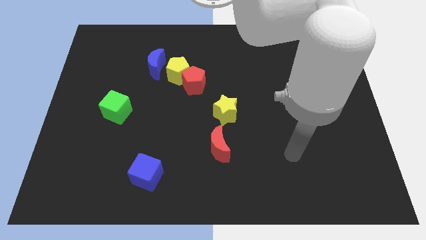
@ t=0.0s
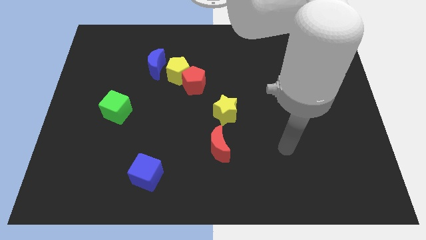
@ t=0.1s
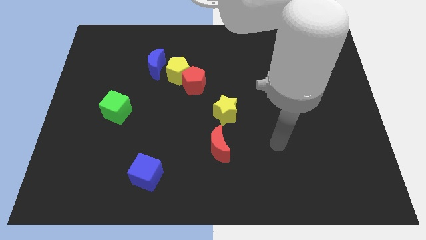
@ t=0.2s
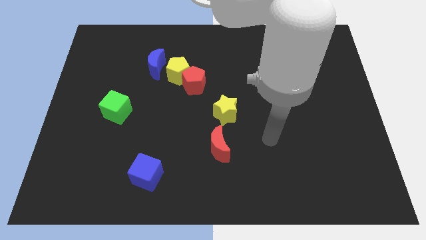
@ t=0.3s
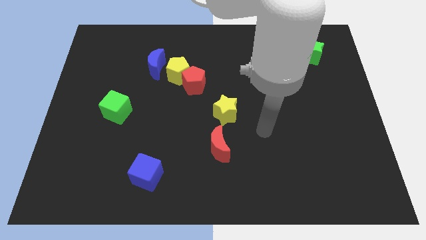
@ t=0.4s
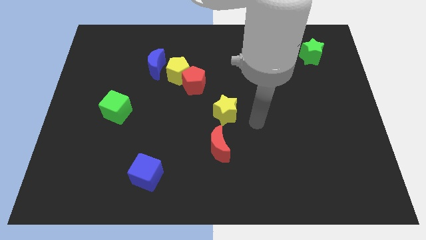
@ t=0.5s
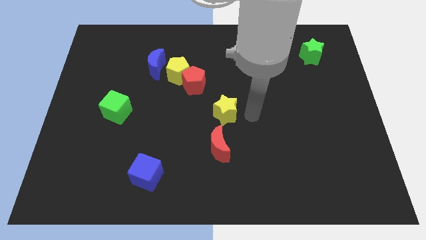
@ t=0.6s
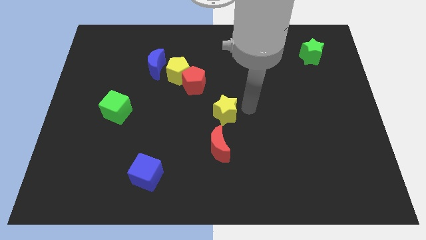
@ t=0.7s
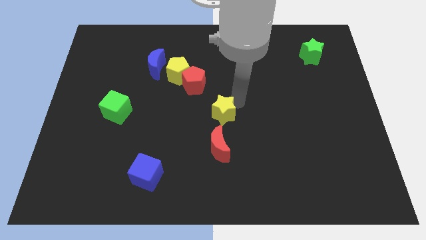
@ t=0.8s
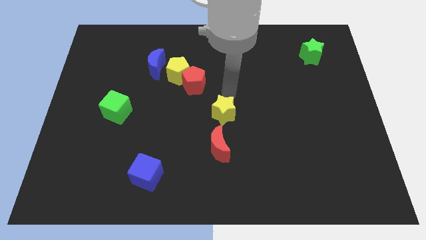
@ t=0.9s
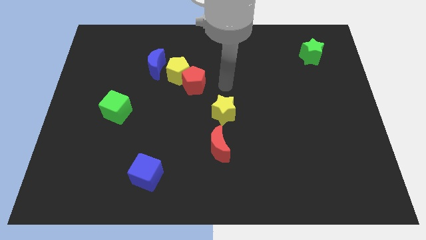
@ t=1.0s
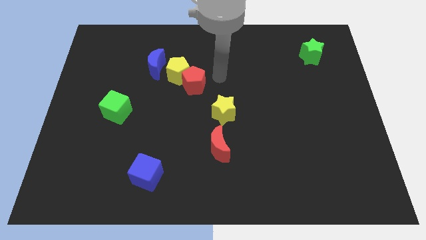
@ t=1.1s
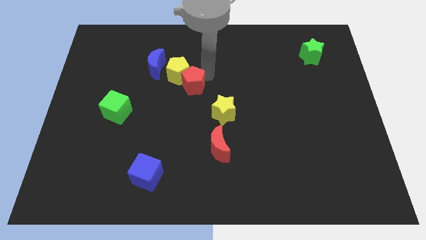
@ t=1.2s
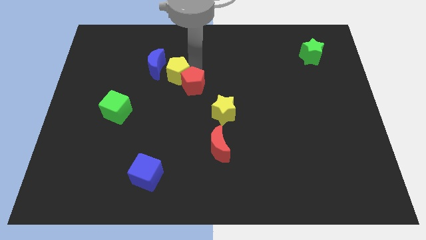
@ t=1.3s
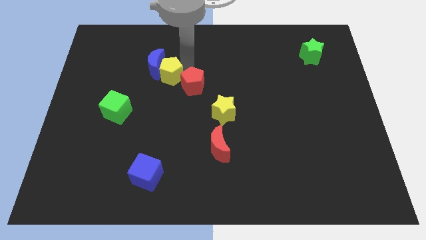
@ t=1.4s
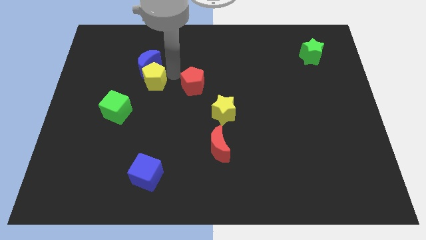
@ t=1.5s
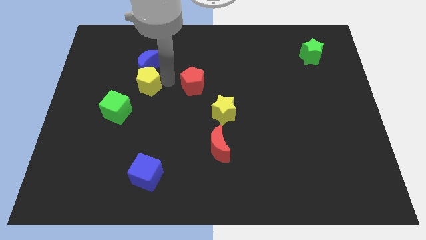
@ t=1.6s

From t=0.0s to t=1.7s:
move the red pentagon away from the yellow pentagon

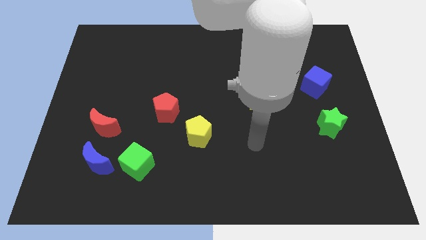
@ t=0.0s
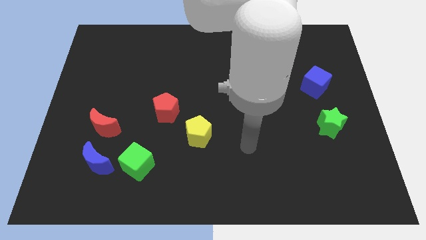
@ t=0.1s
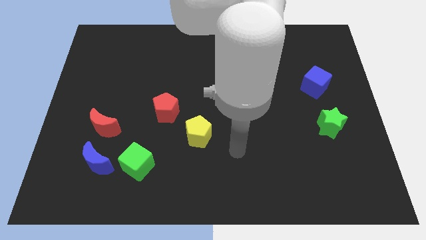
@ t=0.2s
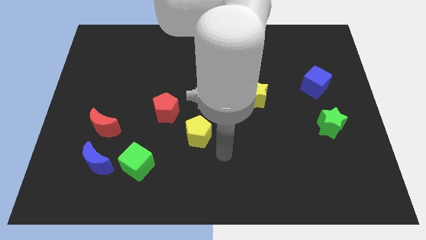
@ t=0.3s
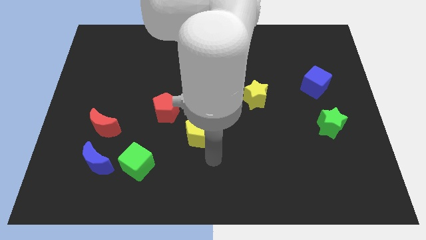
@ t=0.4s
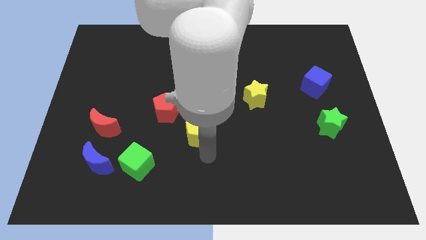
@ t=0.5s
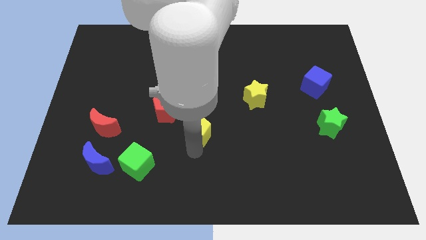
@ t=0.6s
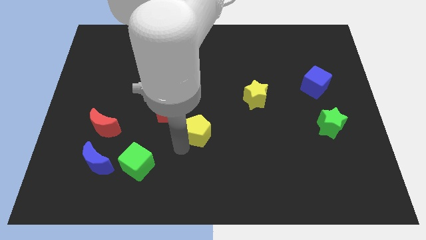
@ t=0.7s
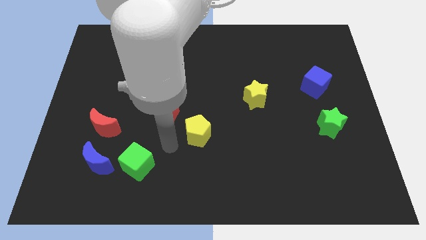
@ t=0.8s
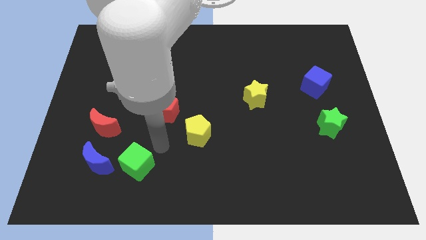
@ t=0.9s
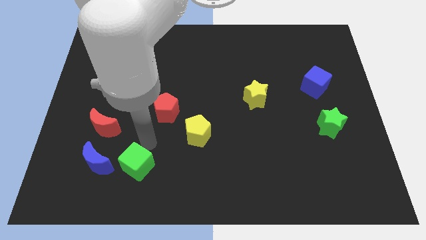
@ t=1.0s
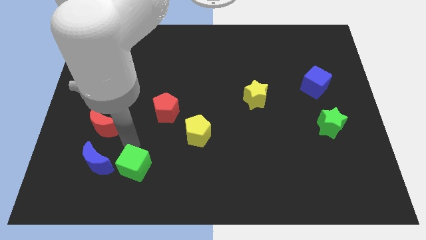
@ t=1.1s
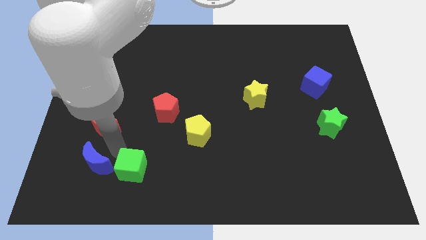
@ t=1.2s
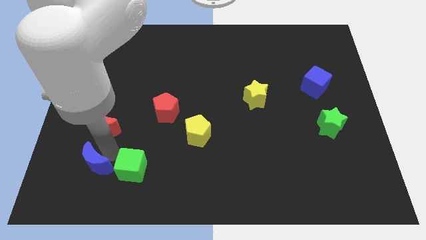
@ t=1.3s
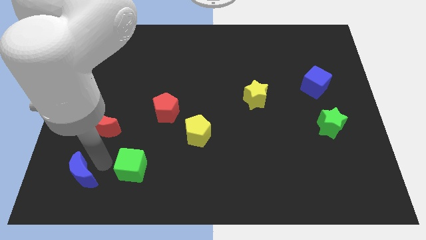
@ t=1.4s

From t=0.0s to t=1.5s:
separate the green cube from the blue moon

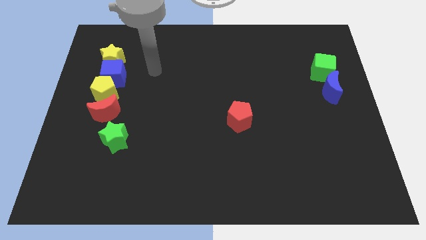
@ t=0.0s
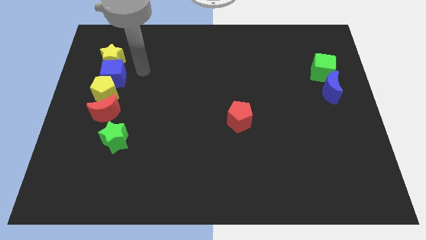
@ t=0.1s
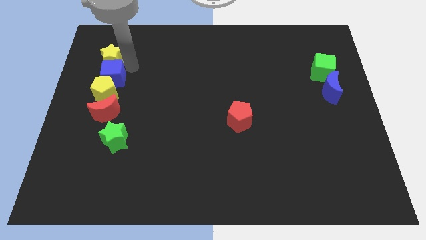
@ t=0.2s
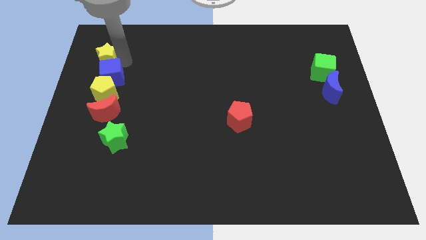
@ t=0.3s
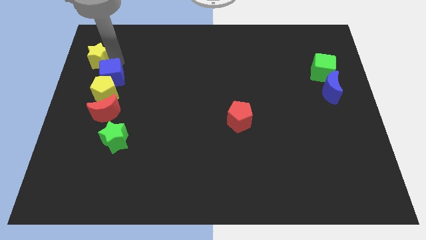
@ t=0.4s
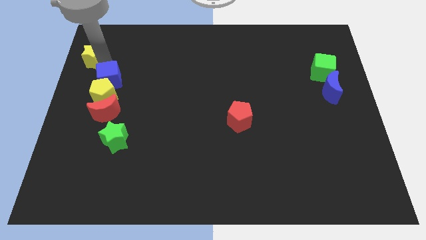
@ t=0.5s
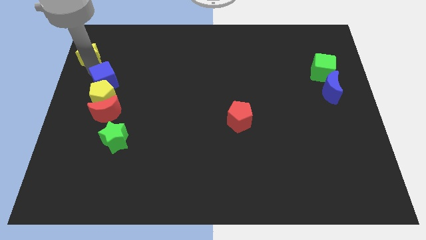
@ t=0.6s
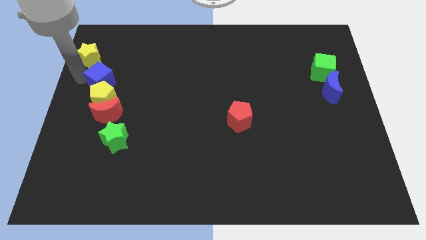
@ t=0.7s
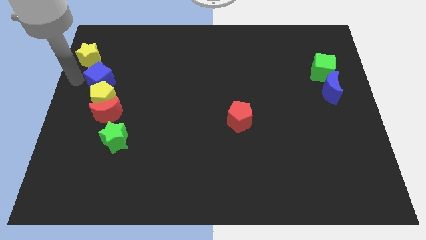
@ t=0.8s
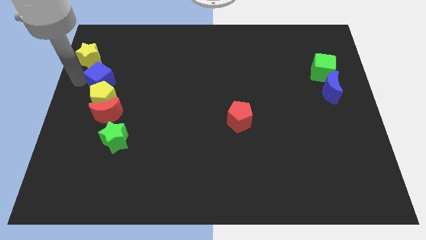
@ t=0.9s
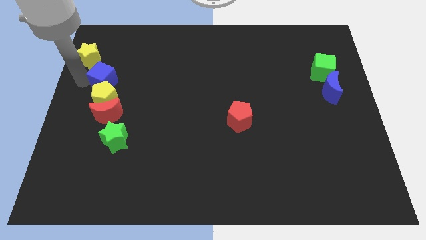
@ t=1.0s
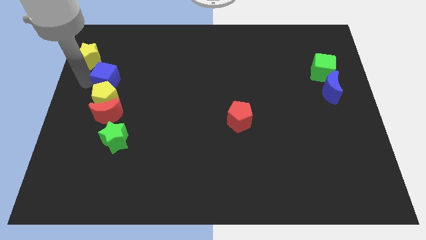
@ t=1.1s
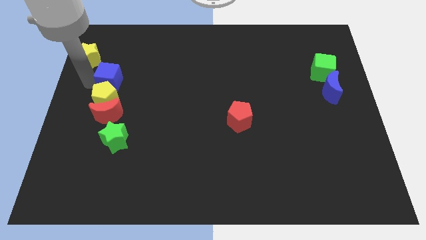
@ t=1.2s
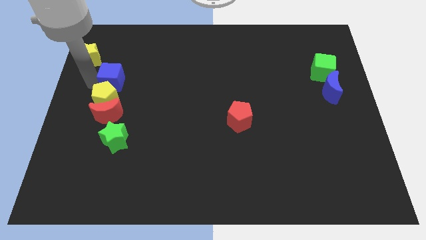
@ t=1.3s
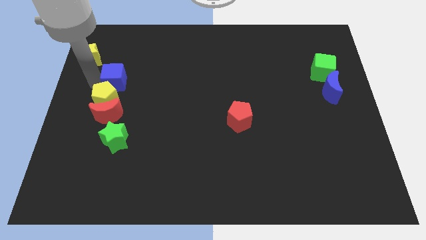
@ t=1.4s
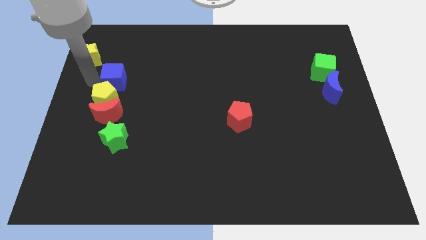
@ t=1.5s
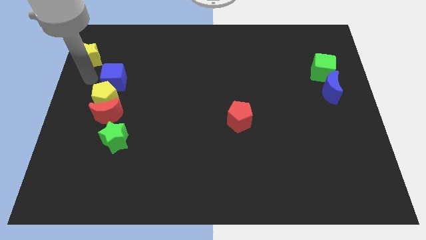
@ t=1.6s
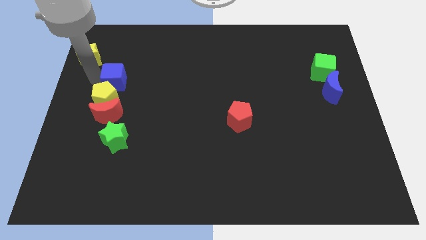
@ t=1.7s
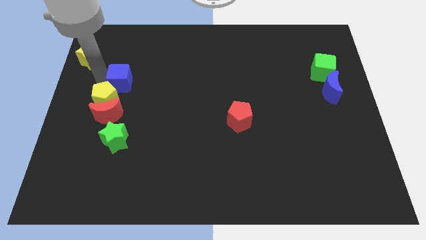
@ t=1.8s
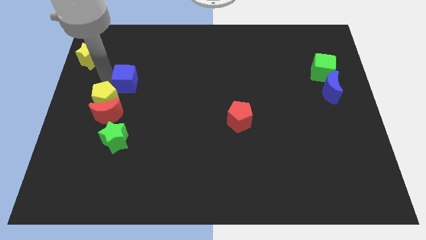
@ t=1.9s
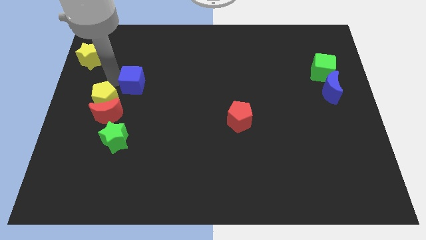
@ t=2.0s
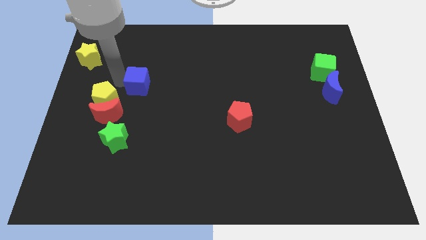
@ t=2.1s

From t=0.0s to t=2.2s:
separate the blue cube from the yellow pentagon and yellow star

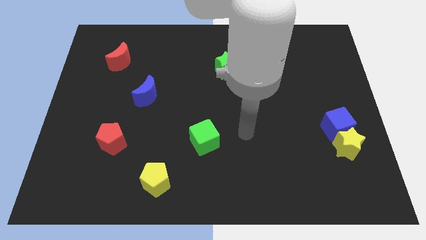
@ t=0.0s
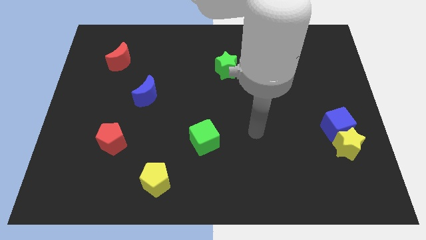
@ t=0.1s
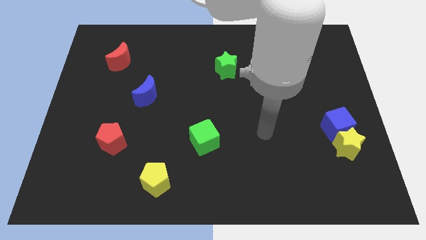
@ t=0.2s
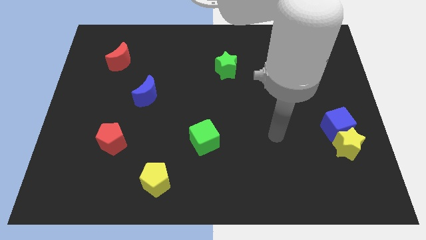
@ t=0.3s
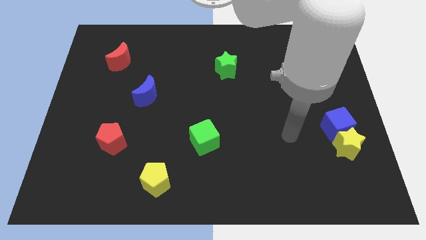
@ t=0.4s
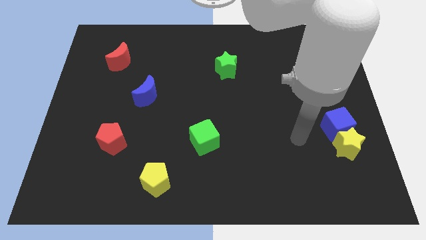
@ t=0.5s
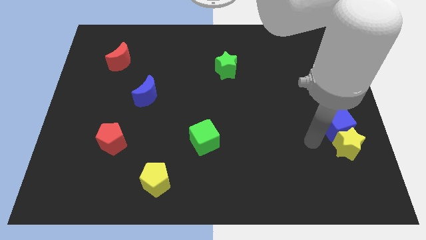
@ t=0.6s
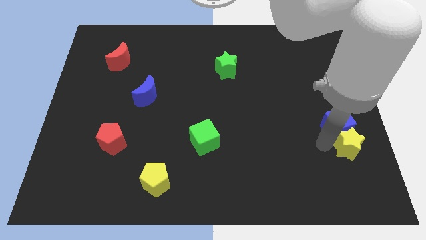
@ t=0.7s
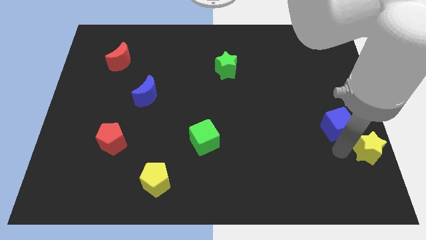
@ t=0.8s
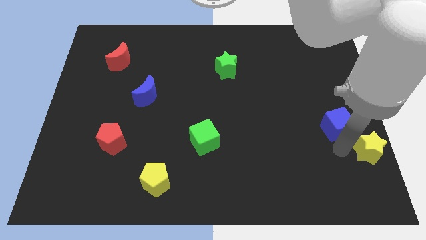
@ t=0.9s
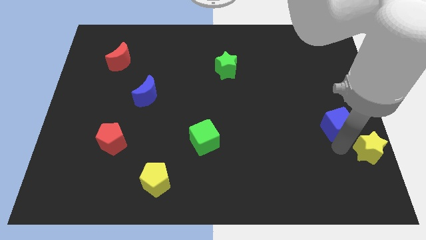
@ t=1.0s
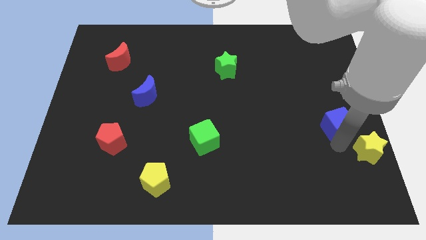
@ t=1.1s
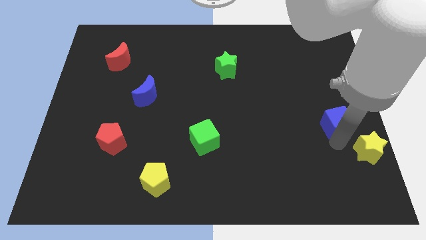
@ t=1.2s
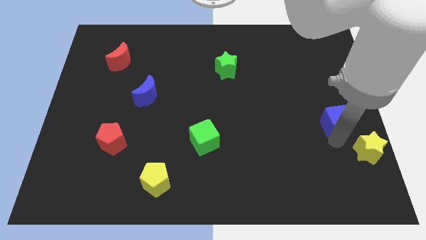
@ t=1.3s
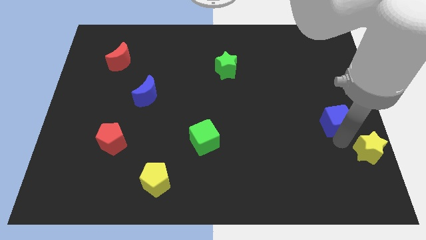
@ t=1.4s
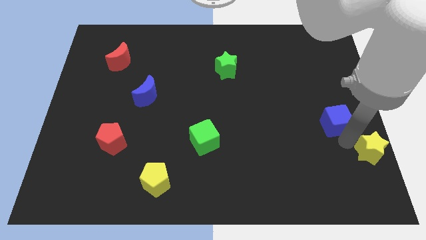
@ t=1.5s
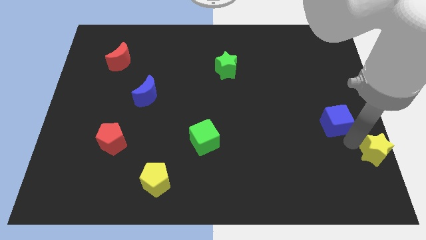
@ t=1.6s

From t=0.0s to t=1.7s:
pull the blue cube apart from the yellow star

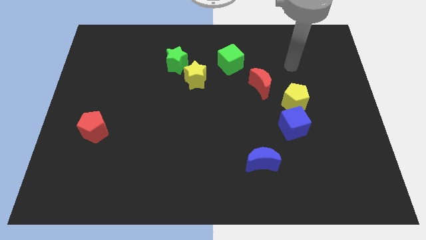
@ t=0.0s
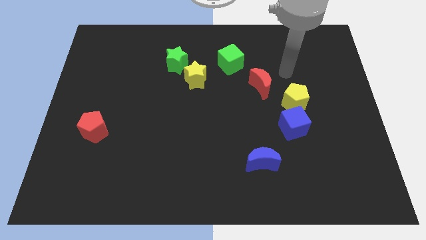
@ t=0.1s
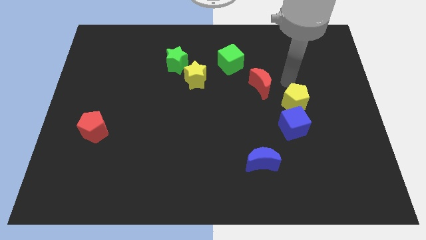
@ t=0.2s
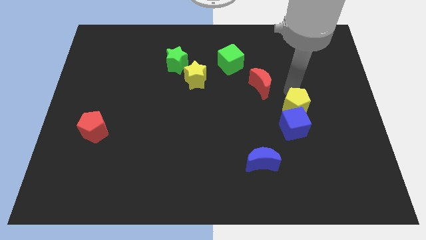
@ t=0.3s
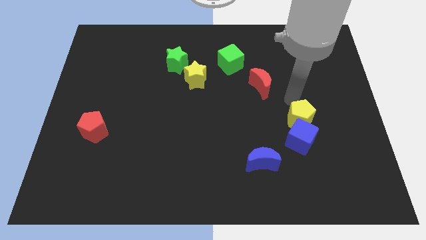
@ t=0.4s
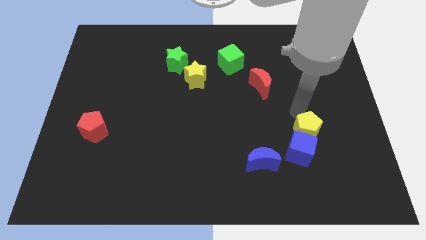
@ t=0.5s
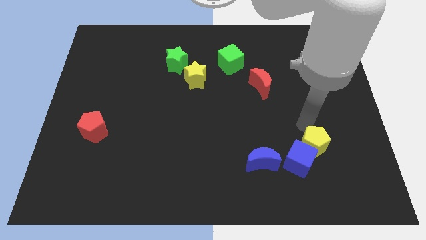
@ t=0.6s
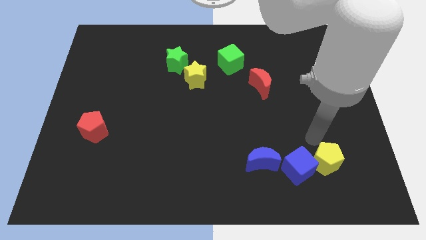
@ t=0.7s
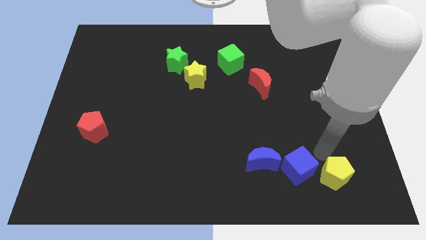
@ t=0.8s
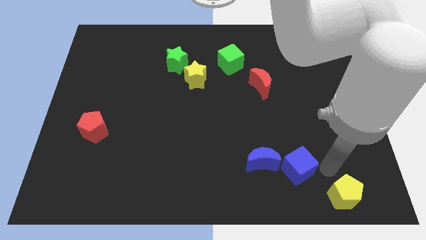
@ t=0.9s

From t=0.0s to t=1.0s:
pull the blue cube apart from the yellow pentagon

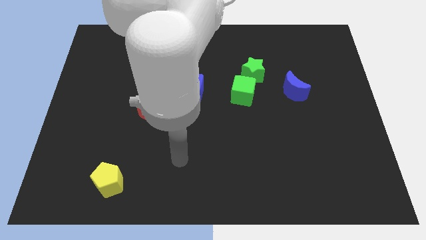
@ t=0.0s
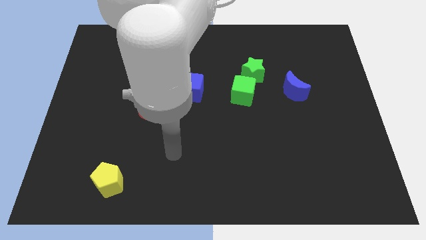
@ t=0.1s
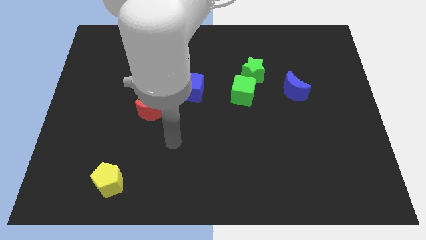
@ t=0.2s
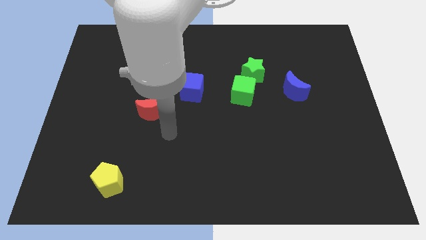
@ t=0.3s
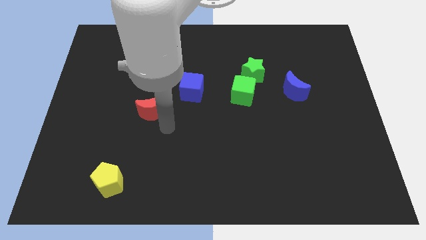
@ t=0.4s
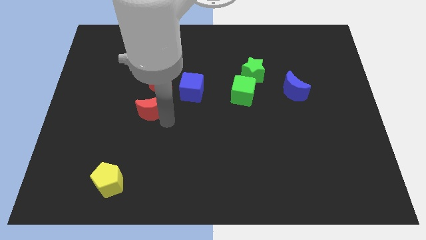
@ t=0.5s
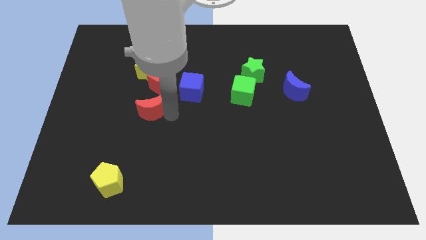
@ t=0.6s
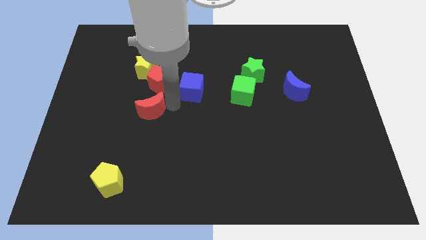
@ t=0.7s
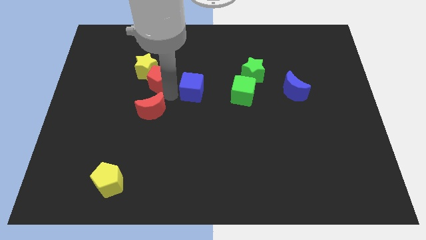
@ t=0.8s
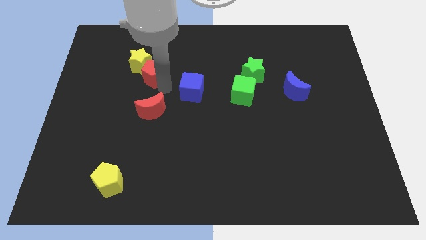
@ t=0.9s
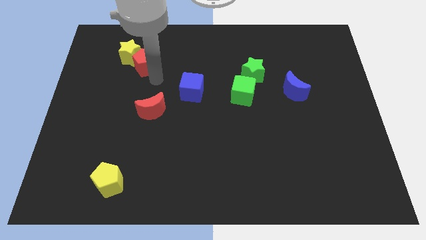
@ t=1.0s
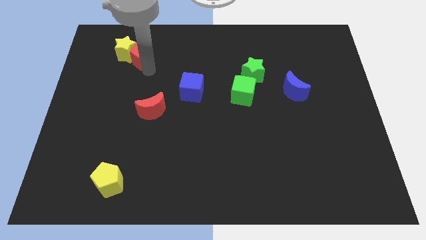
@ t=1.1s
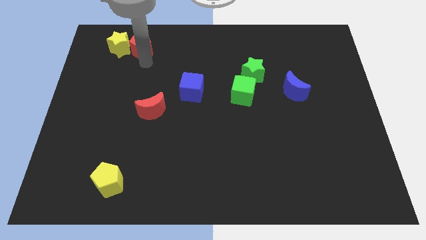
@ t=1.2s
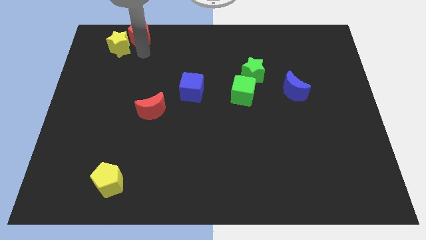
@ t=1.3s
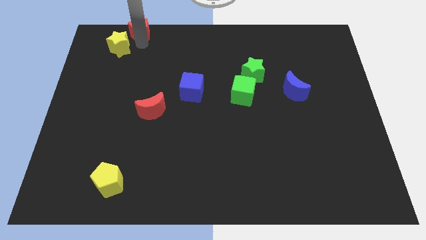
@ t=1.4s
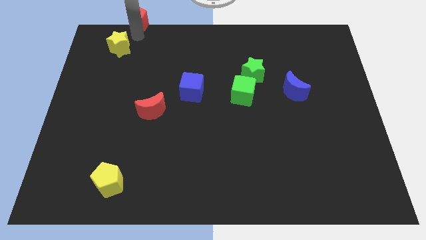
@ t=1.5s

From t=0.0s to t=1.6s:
separate the yellow star from the red pentagon
